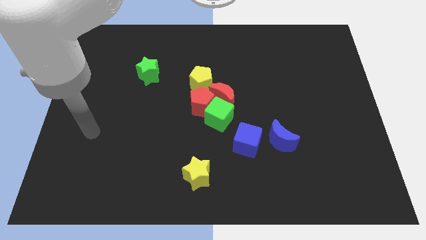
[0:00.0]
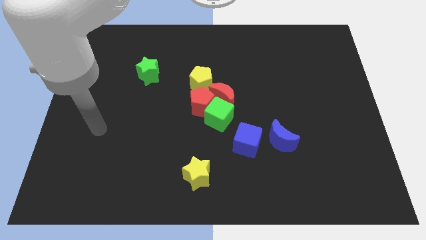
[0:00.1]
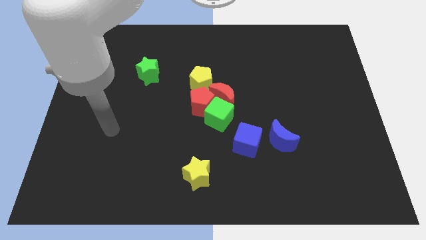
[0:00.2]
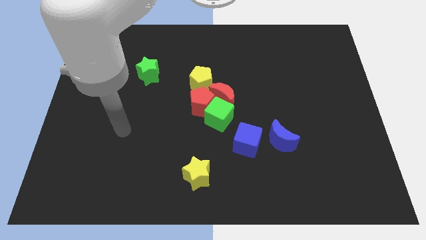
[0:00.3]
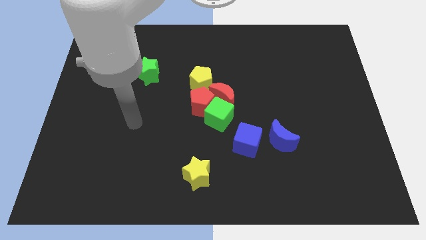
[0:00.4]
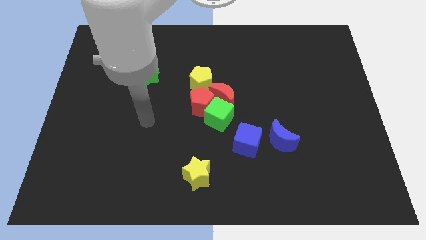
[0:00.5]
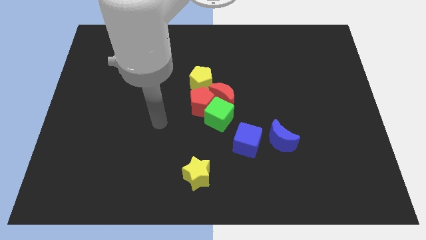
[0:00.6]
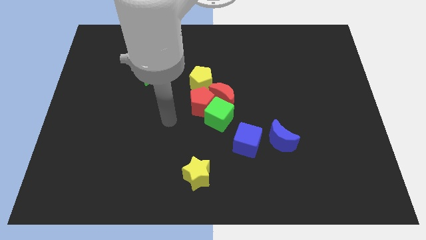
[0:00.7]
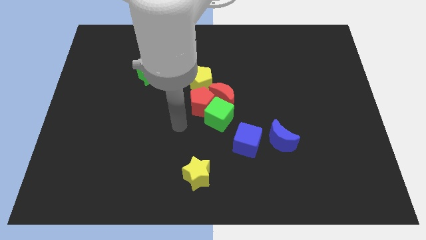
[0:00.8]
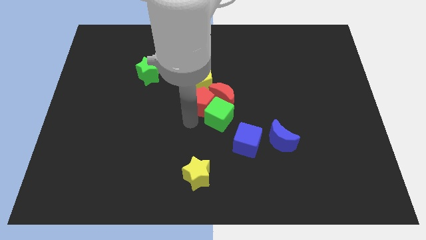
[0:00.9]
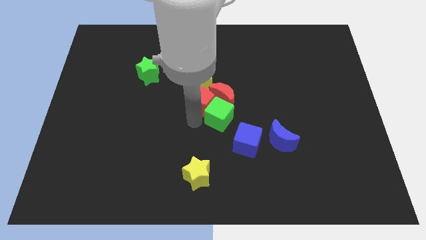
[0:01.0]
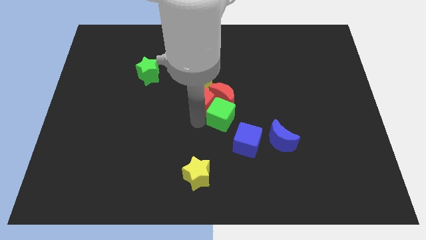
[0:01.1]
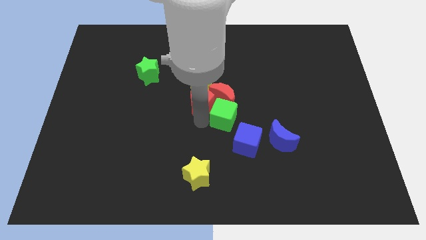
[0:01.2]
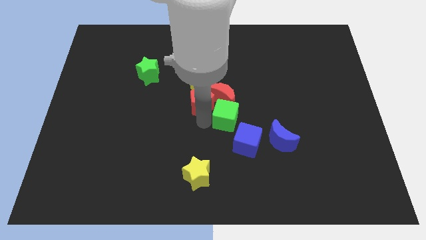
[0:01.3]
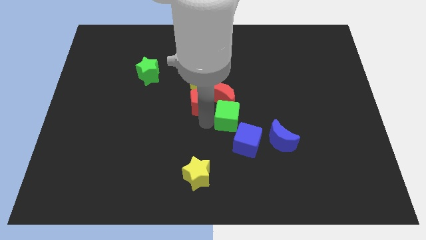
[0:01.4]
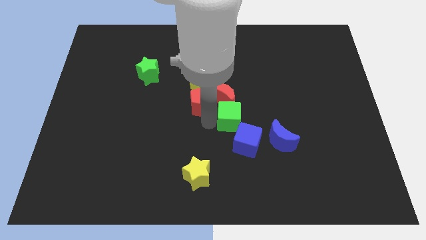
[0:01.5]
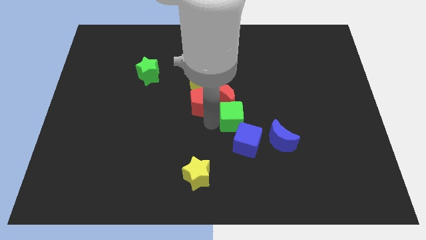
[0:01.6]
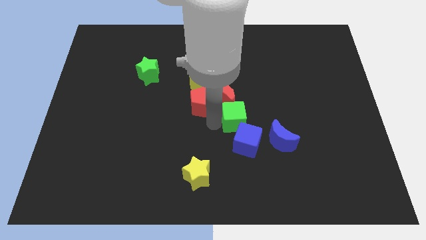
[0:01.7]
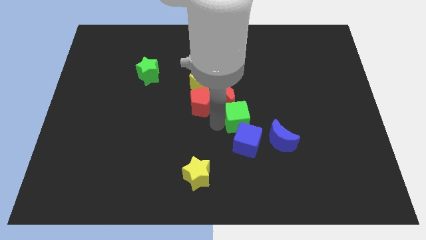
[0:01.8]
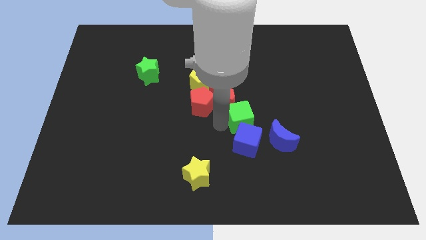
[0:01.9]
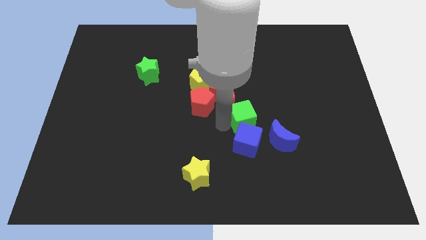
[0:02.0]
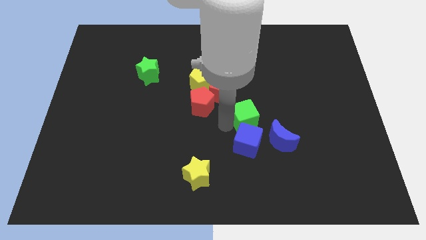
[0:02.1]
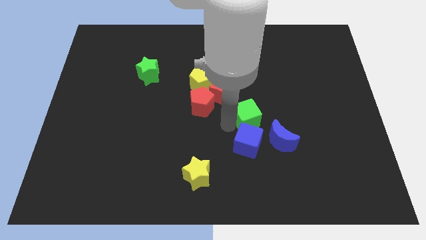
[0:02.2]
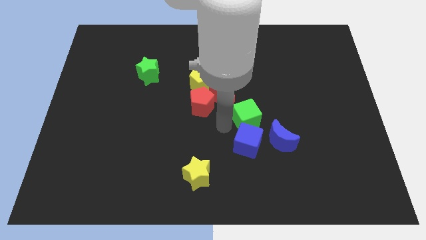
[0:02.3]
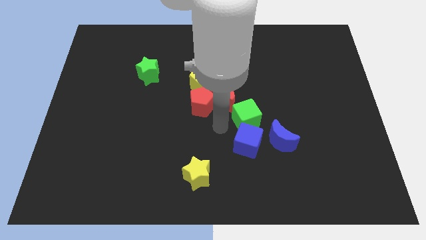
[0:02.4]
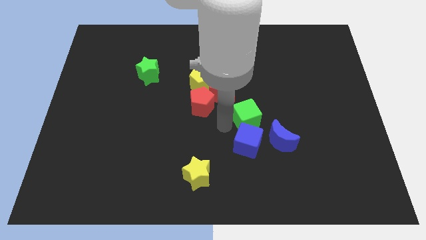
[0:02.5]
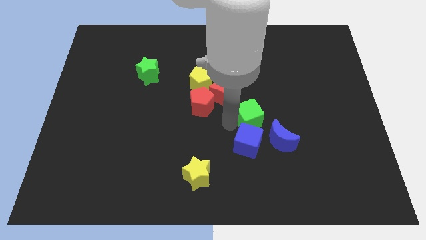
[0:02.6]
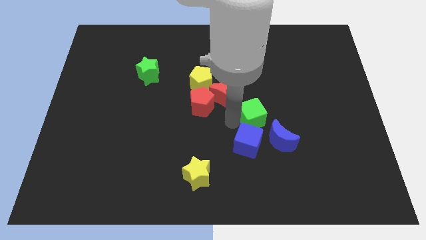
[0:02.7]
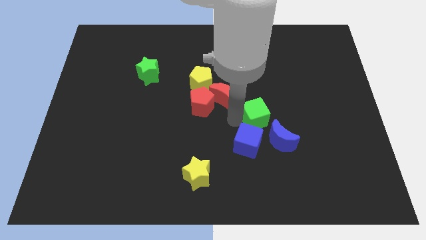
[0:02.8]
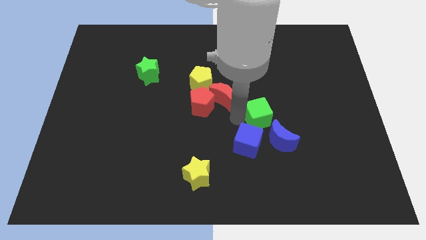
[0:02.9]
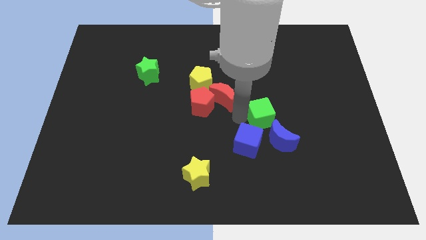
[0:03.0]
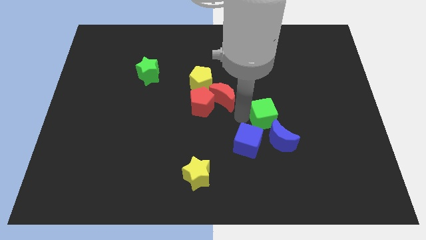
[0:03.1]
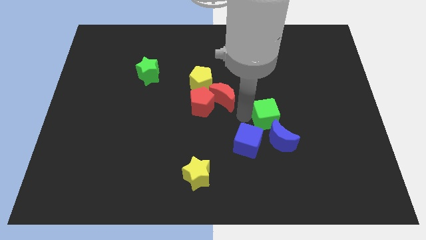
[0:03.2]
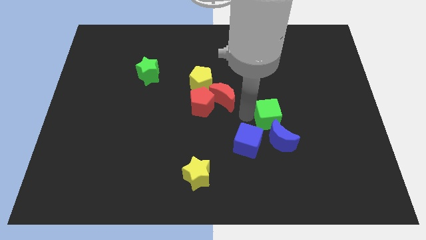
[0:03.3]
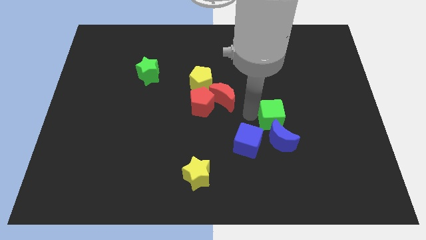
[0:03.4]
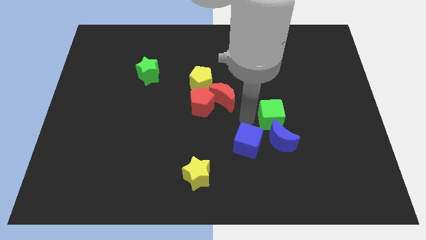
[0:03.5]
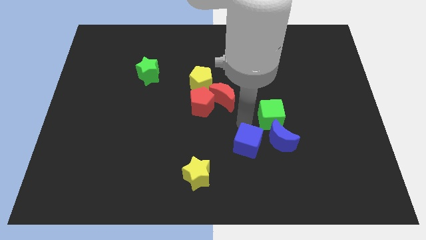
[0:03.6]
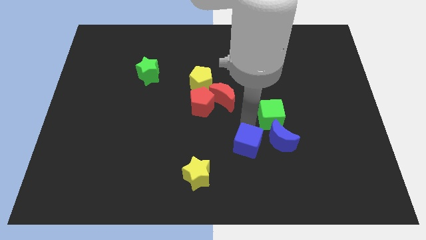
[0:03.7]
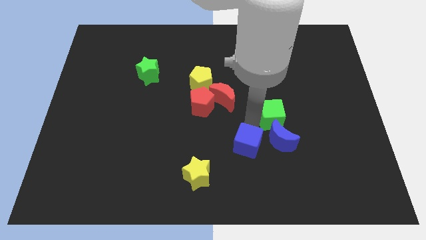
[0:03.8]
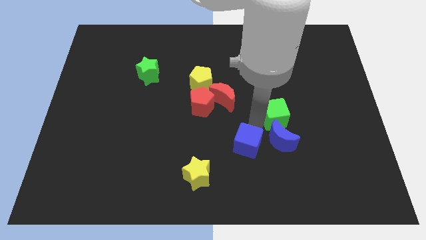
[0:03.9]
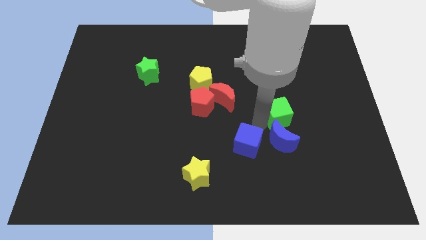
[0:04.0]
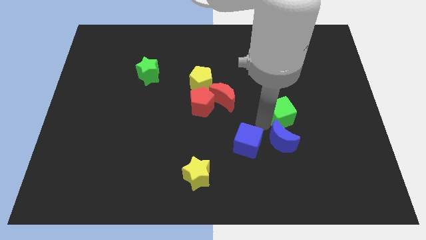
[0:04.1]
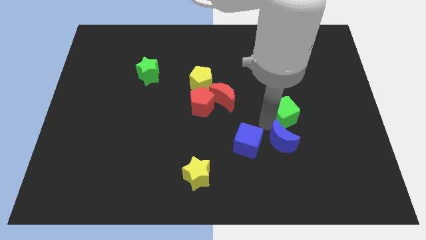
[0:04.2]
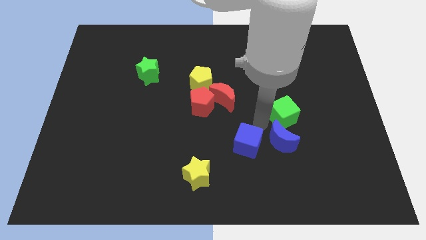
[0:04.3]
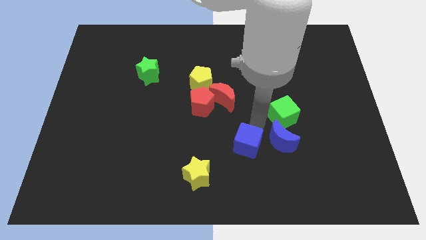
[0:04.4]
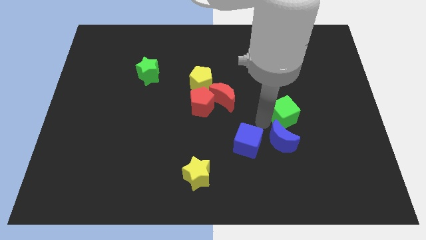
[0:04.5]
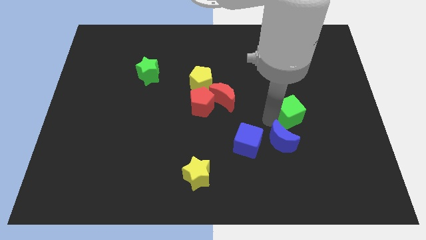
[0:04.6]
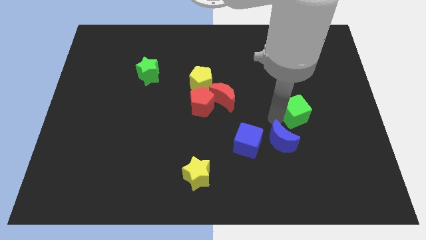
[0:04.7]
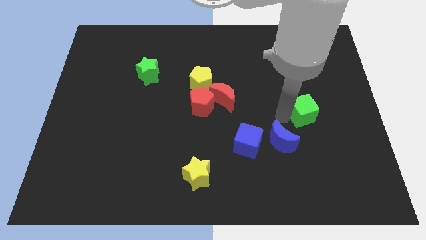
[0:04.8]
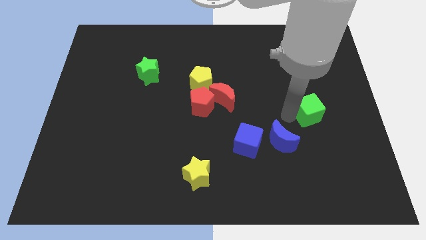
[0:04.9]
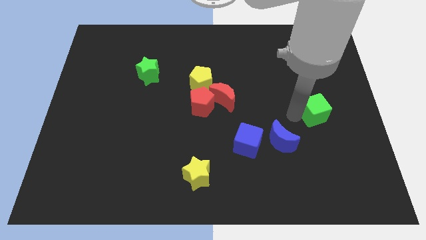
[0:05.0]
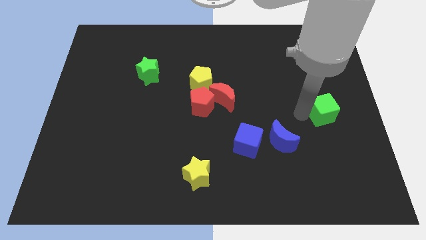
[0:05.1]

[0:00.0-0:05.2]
push the green cube to the center right

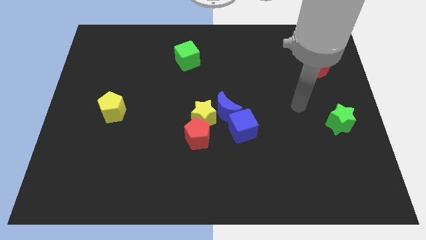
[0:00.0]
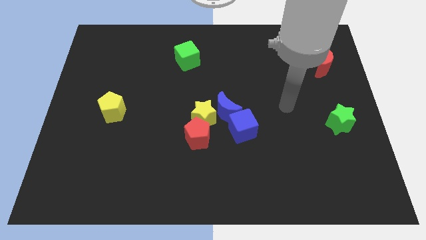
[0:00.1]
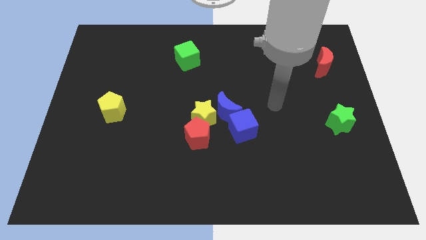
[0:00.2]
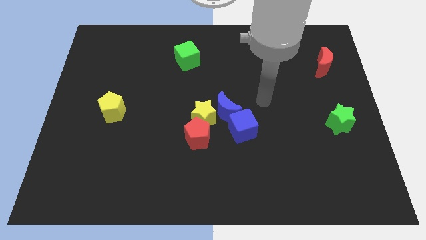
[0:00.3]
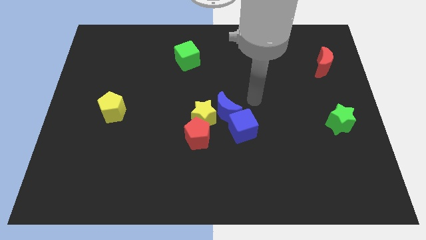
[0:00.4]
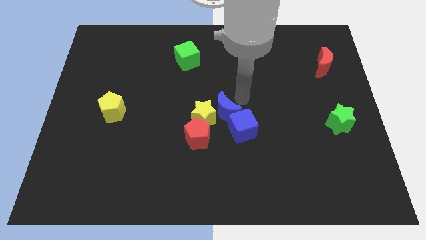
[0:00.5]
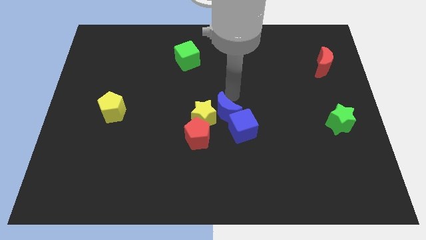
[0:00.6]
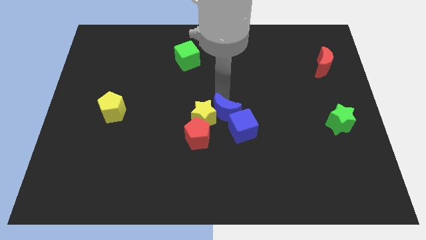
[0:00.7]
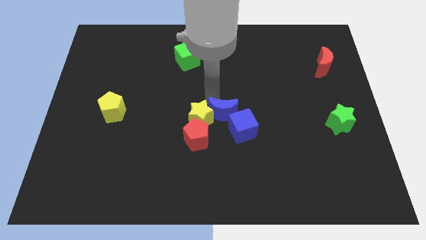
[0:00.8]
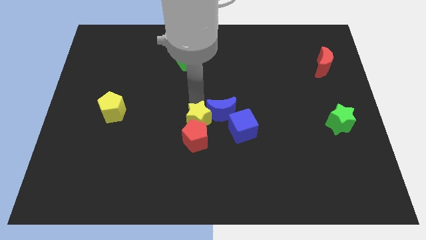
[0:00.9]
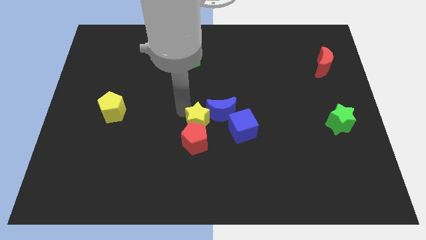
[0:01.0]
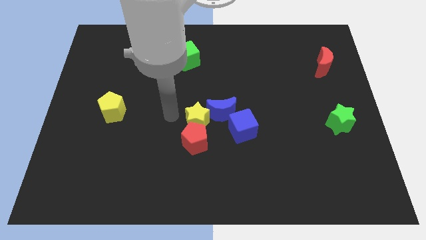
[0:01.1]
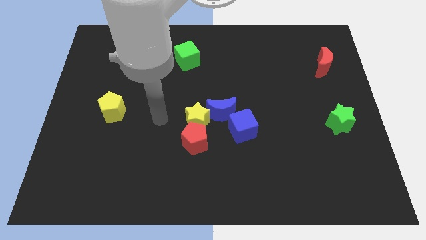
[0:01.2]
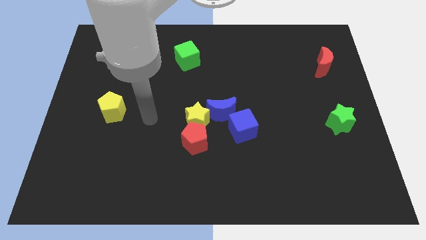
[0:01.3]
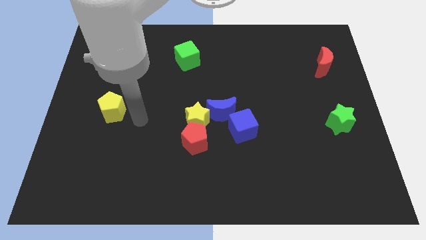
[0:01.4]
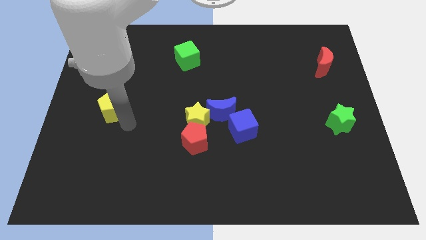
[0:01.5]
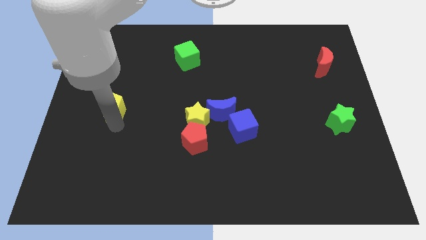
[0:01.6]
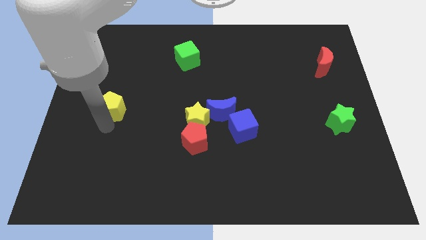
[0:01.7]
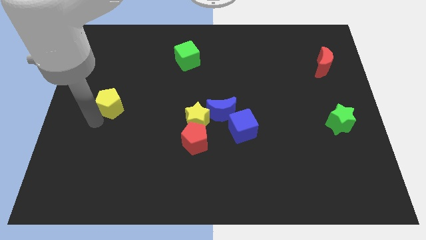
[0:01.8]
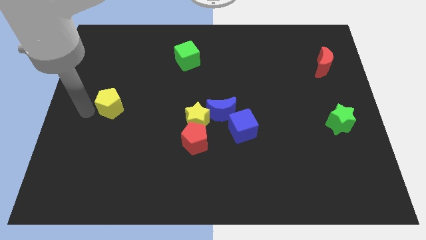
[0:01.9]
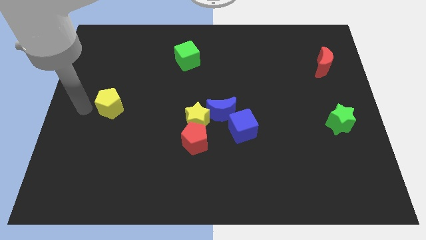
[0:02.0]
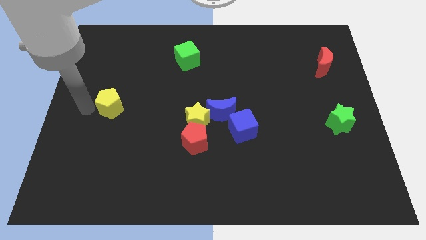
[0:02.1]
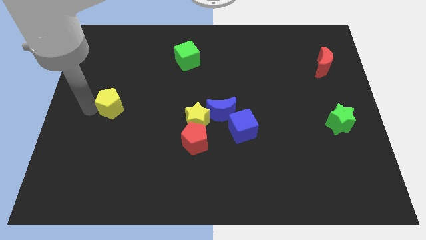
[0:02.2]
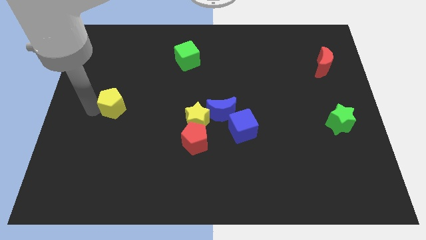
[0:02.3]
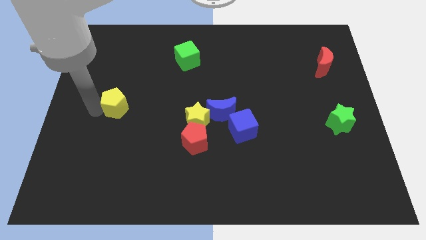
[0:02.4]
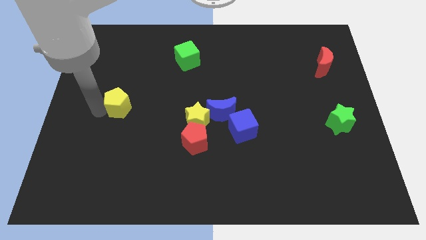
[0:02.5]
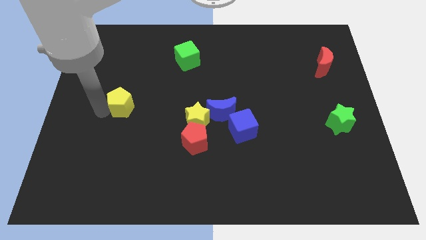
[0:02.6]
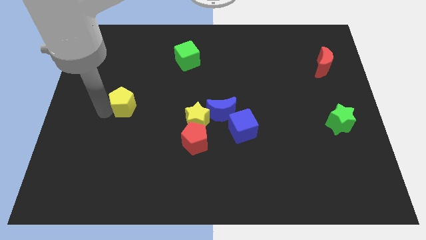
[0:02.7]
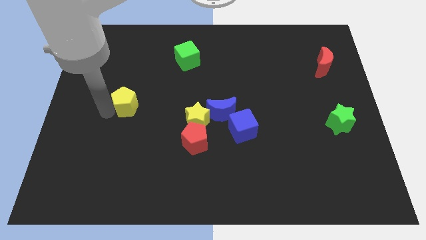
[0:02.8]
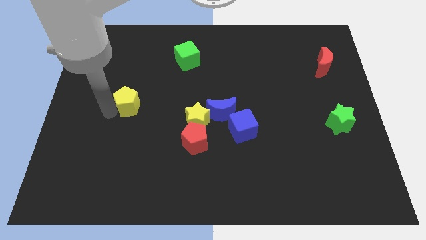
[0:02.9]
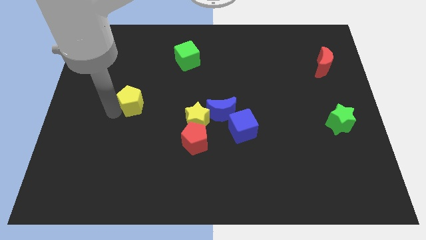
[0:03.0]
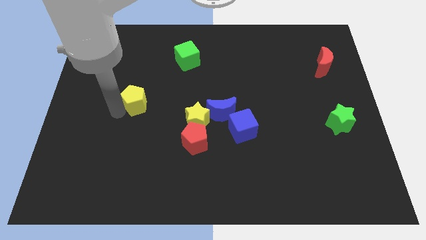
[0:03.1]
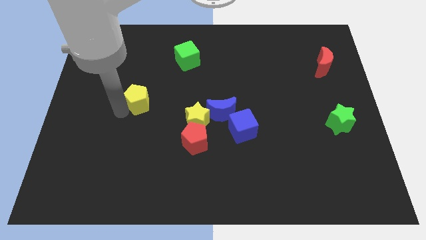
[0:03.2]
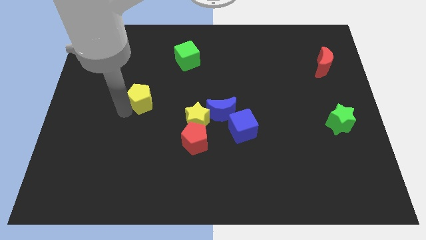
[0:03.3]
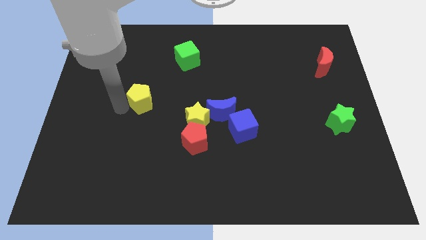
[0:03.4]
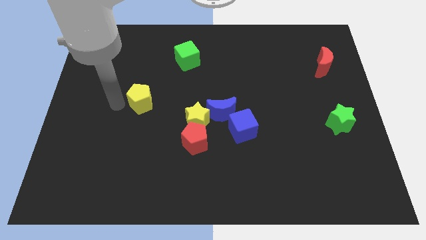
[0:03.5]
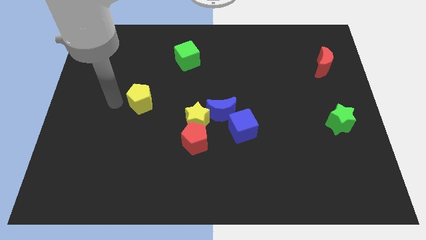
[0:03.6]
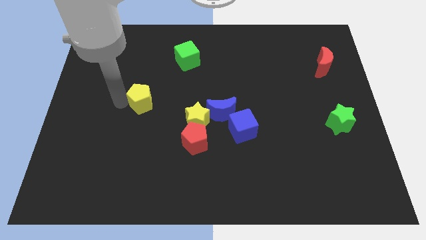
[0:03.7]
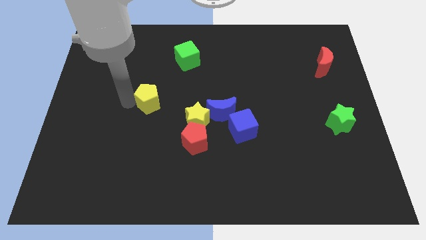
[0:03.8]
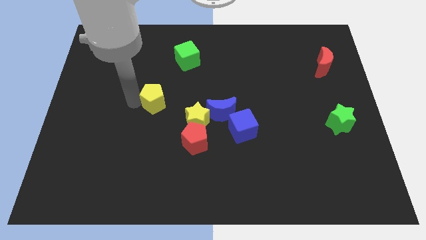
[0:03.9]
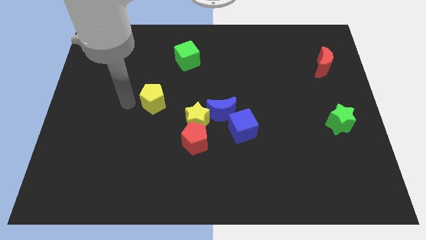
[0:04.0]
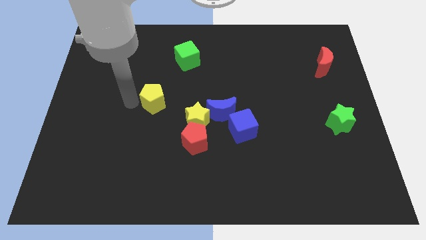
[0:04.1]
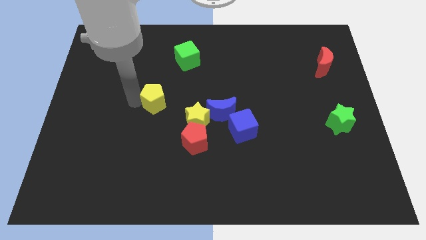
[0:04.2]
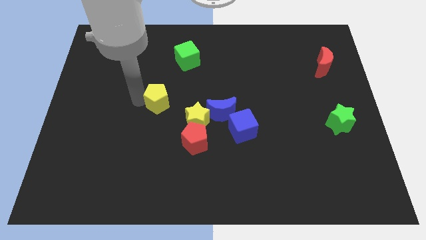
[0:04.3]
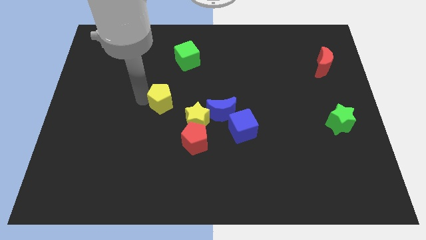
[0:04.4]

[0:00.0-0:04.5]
slide the yellow pentagon to the middle of the board
